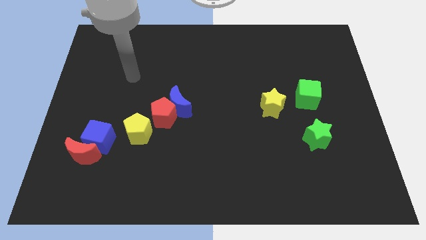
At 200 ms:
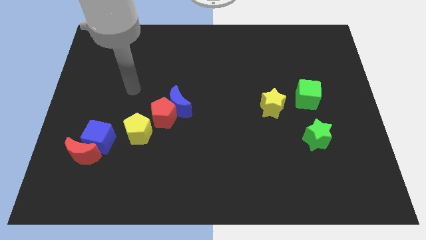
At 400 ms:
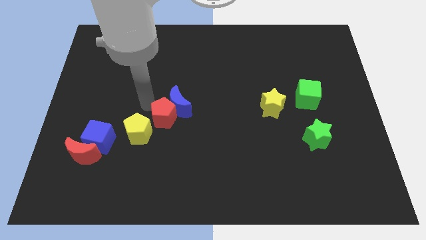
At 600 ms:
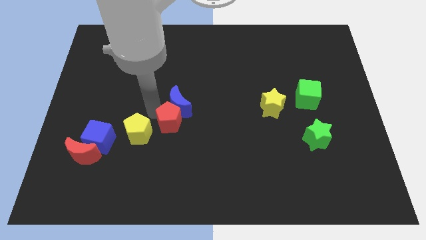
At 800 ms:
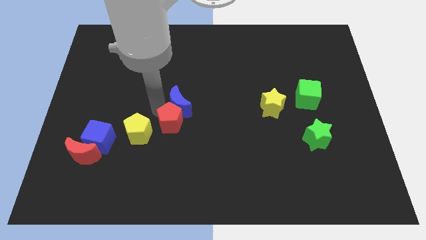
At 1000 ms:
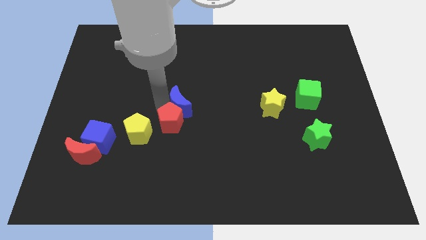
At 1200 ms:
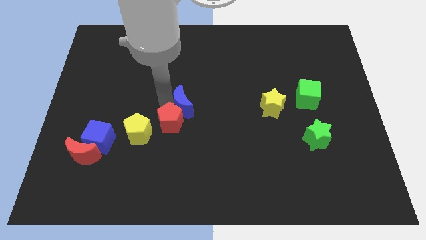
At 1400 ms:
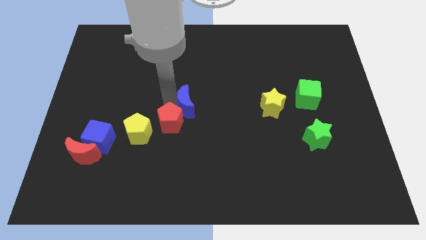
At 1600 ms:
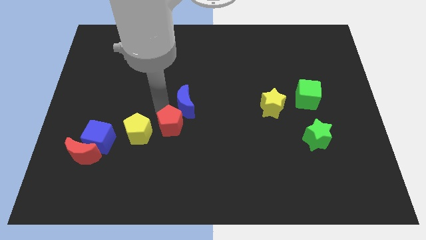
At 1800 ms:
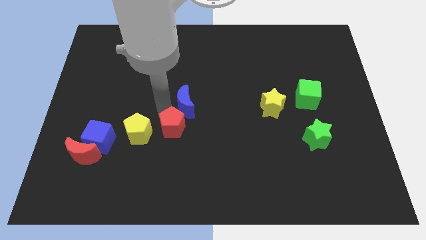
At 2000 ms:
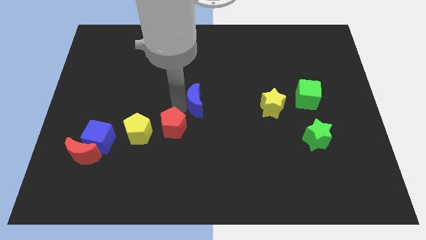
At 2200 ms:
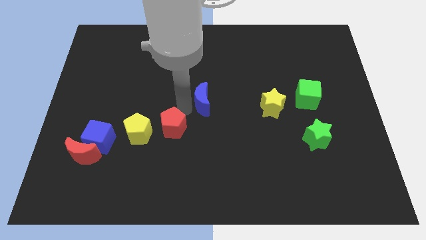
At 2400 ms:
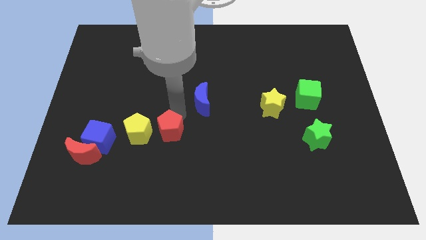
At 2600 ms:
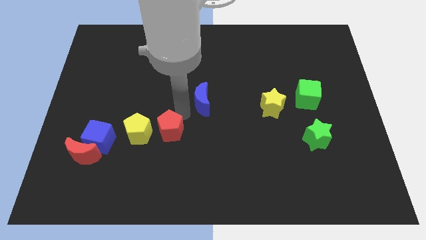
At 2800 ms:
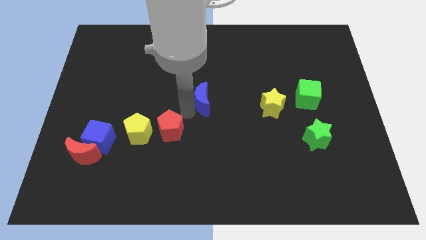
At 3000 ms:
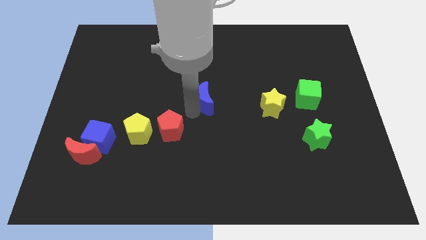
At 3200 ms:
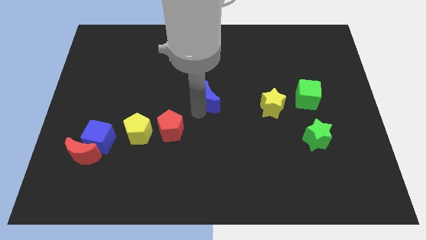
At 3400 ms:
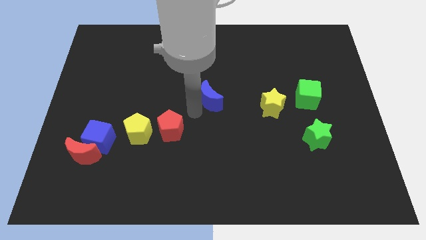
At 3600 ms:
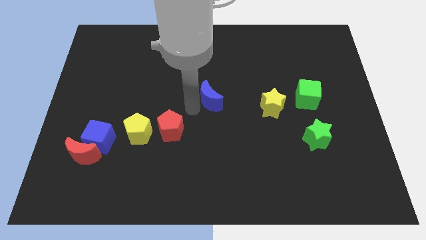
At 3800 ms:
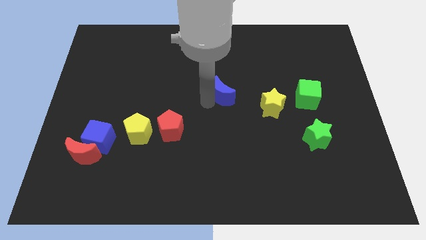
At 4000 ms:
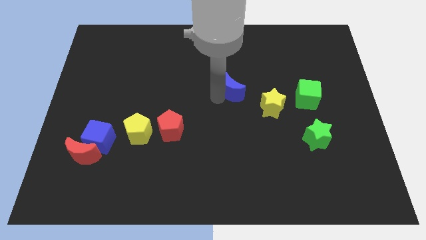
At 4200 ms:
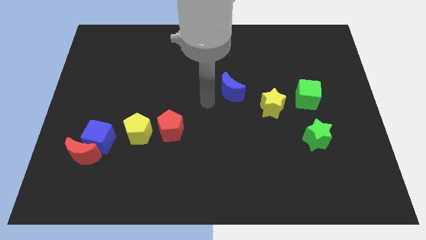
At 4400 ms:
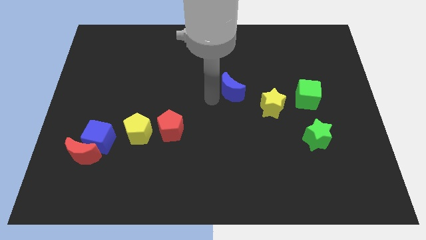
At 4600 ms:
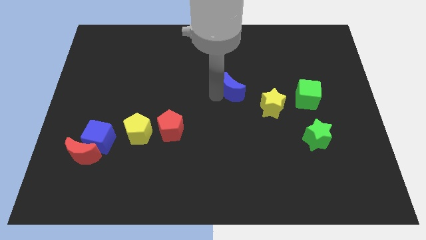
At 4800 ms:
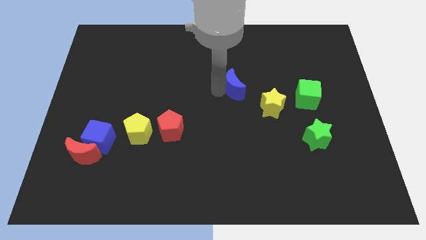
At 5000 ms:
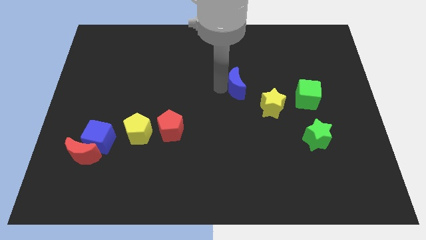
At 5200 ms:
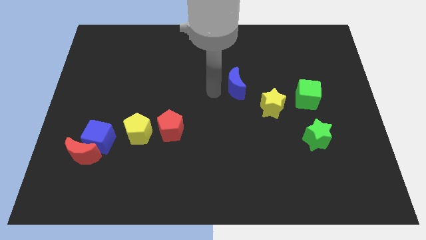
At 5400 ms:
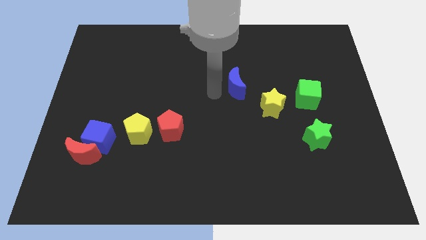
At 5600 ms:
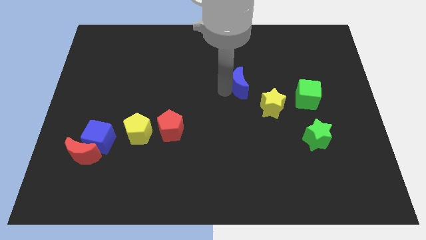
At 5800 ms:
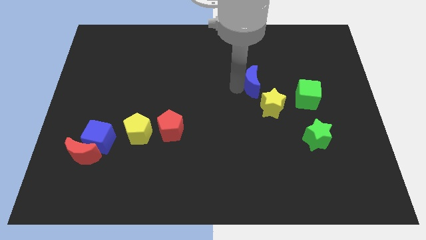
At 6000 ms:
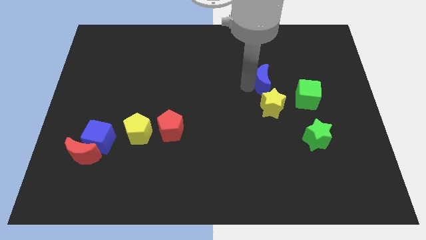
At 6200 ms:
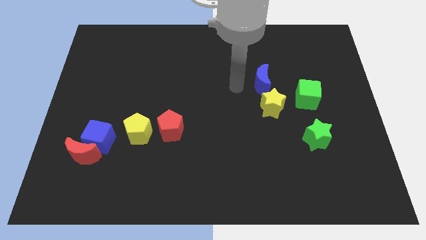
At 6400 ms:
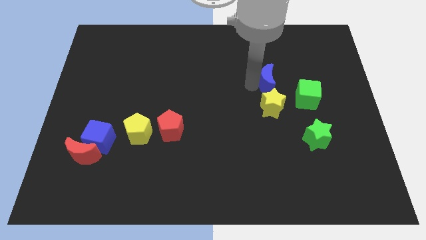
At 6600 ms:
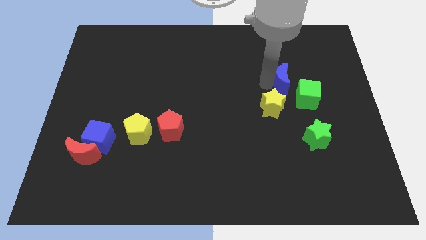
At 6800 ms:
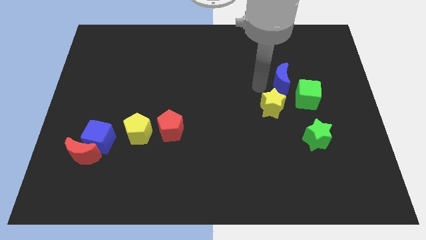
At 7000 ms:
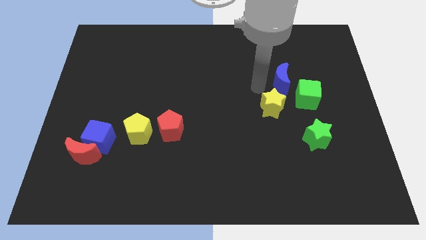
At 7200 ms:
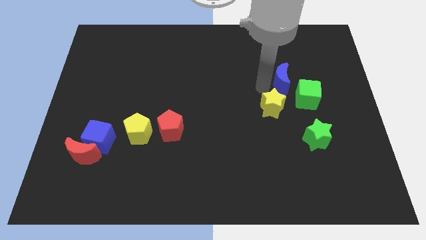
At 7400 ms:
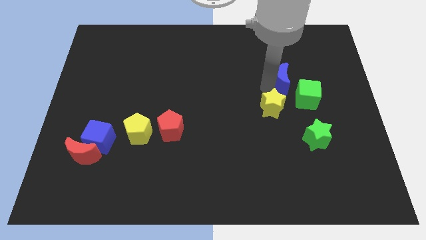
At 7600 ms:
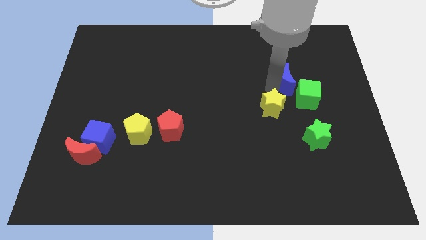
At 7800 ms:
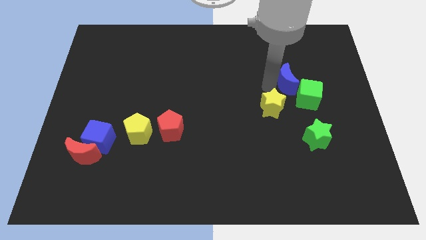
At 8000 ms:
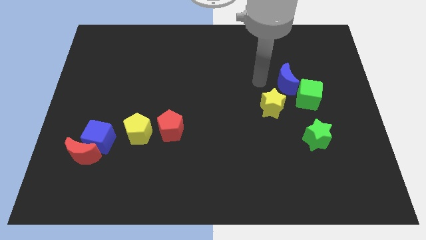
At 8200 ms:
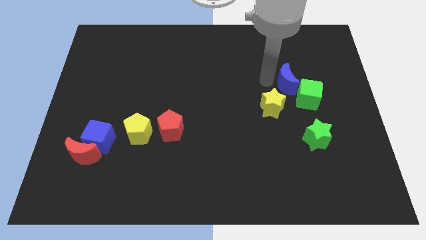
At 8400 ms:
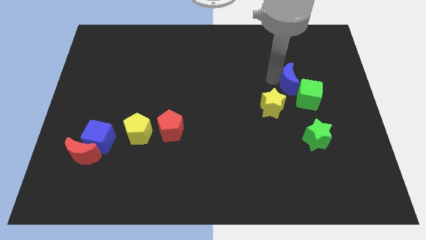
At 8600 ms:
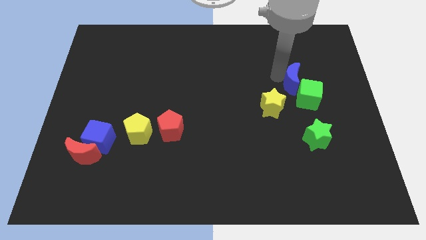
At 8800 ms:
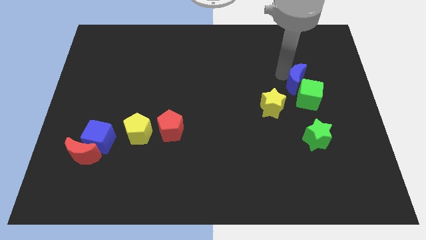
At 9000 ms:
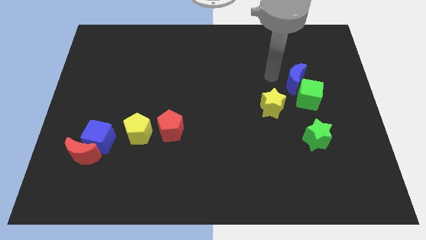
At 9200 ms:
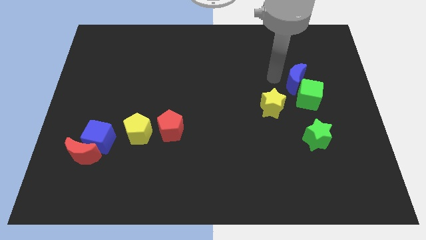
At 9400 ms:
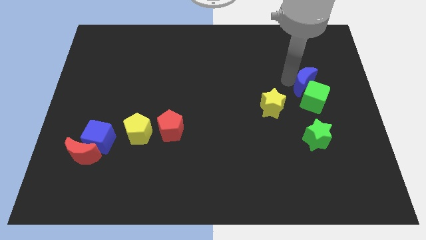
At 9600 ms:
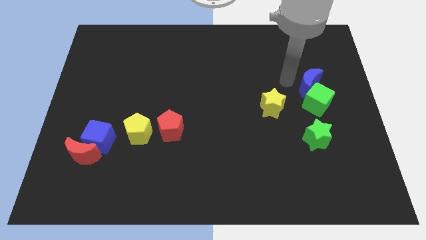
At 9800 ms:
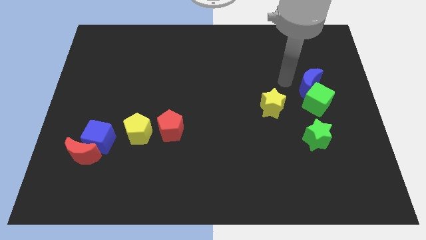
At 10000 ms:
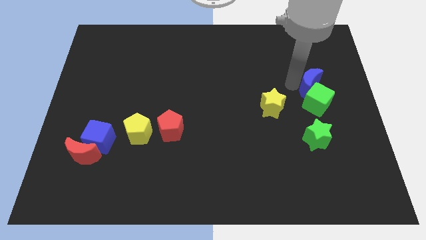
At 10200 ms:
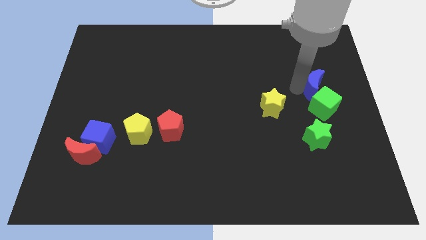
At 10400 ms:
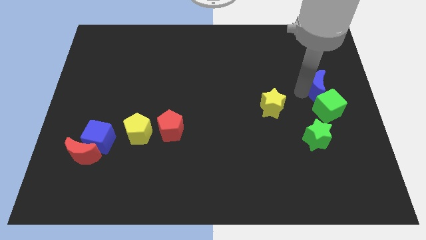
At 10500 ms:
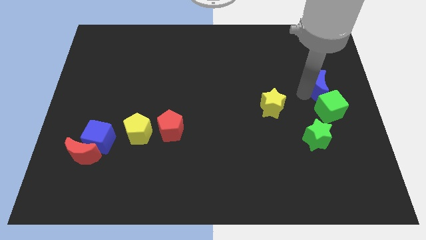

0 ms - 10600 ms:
push the blue moon to the right side

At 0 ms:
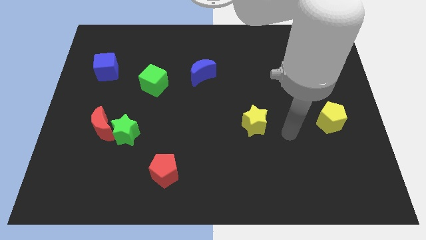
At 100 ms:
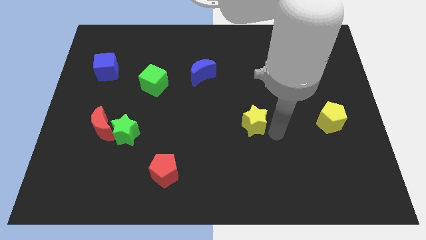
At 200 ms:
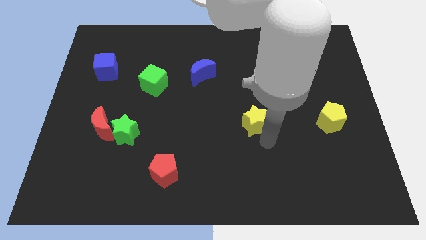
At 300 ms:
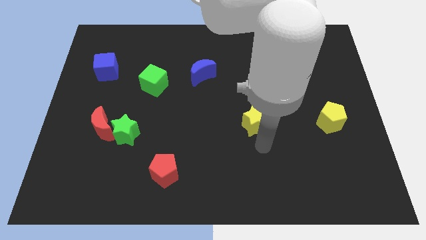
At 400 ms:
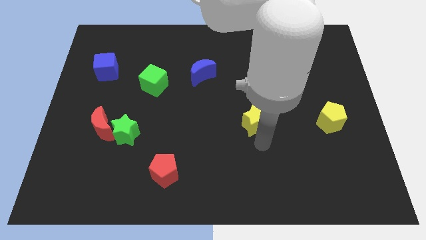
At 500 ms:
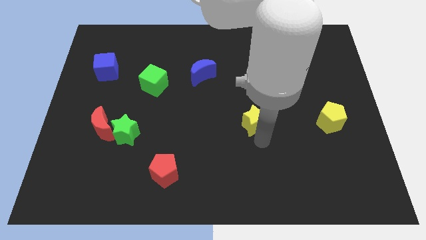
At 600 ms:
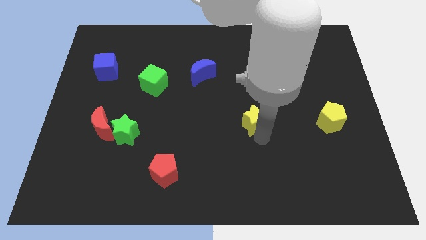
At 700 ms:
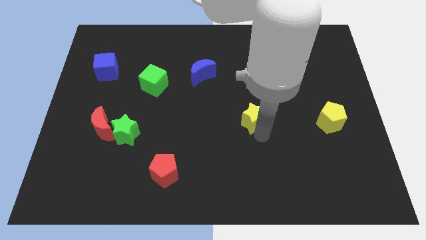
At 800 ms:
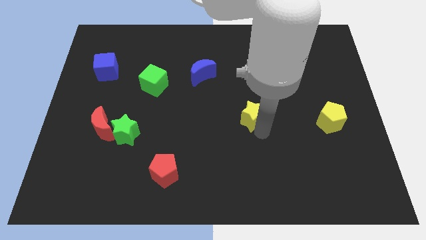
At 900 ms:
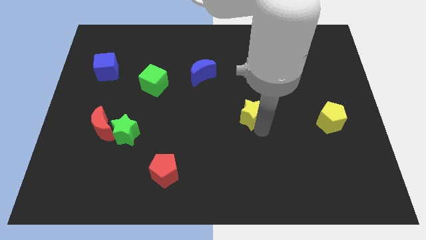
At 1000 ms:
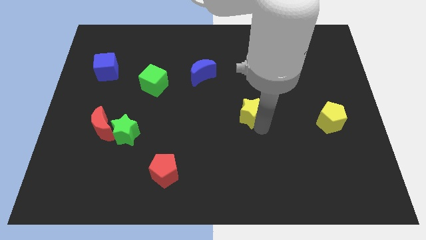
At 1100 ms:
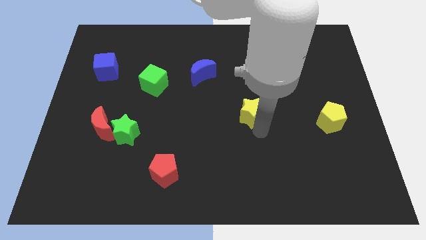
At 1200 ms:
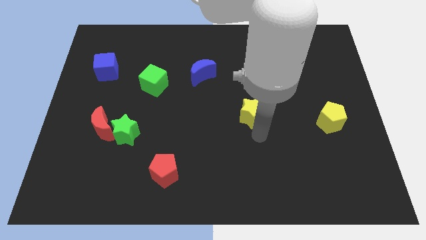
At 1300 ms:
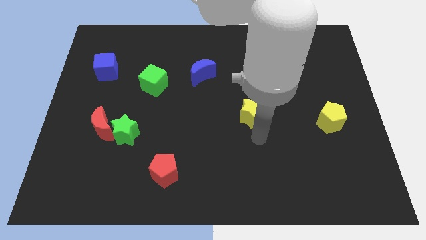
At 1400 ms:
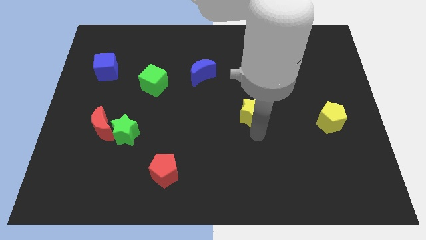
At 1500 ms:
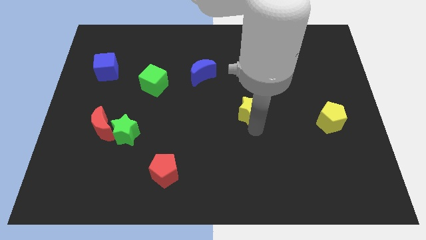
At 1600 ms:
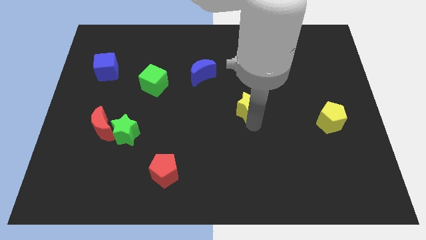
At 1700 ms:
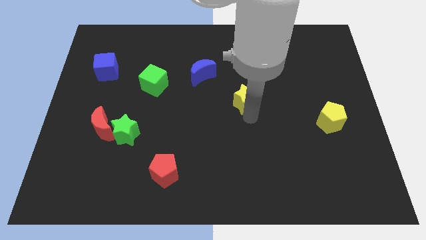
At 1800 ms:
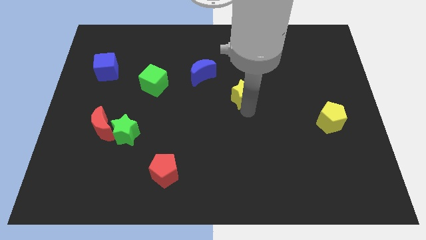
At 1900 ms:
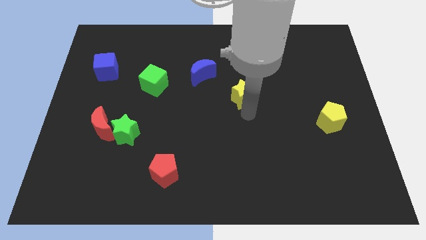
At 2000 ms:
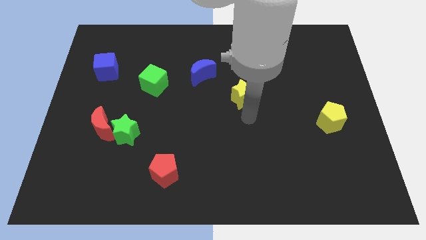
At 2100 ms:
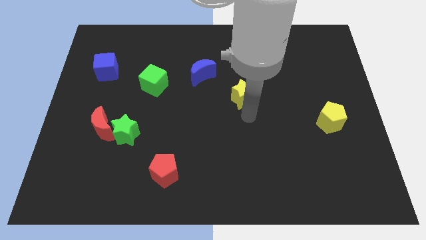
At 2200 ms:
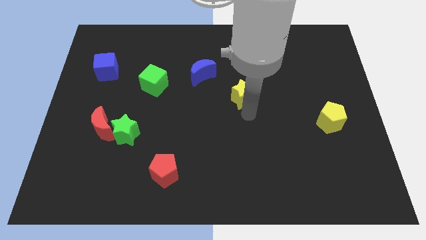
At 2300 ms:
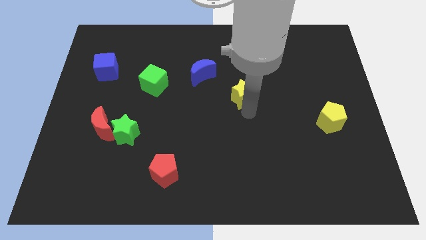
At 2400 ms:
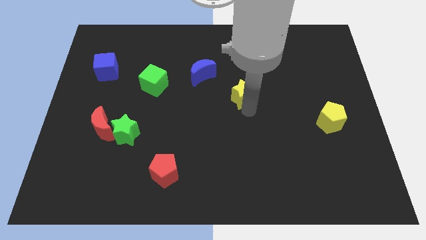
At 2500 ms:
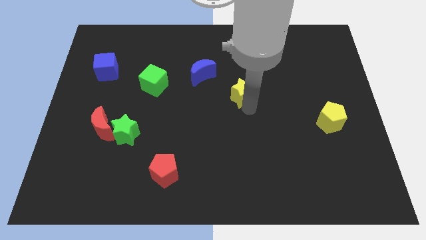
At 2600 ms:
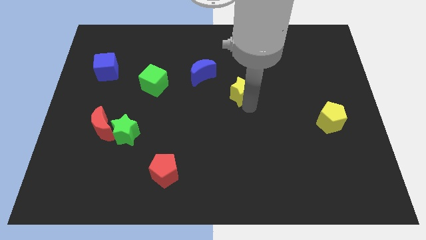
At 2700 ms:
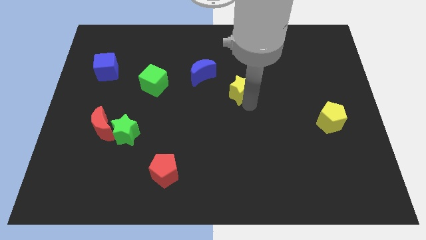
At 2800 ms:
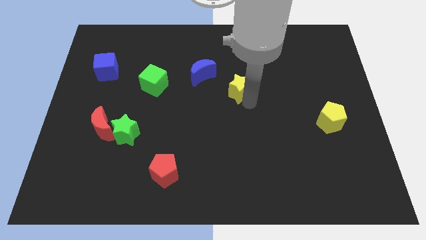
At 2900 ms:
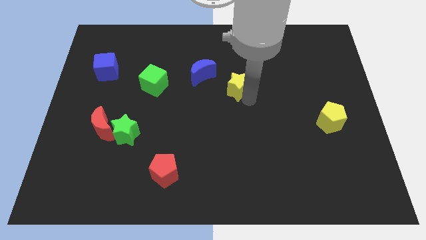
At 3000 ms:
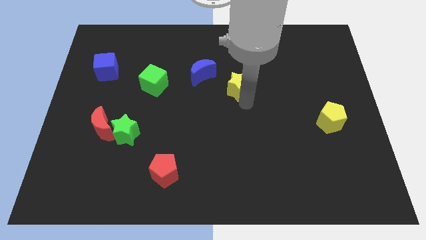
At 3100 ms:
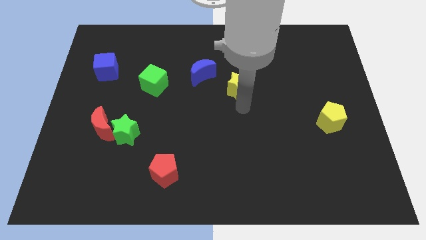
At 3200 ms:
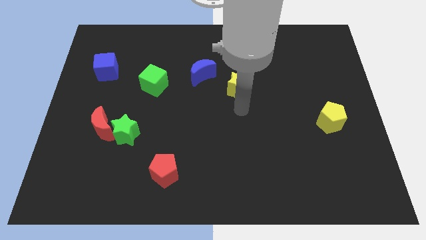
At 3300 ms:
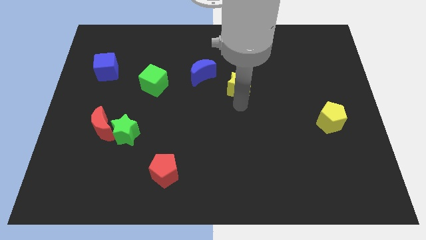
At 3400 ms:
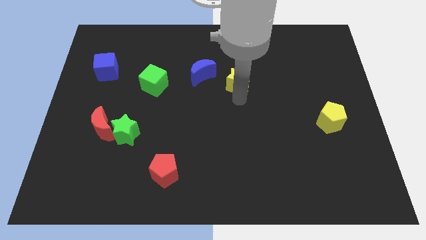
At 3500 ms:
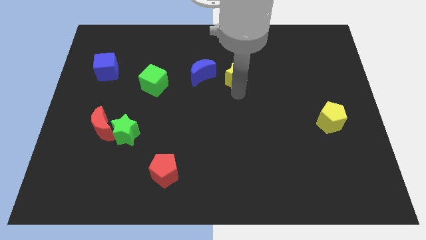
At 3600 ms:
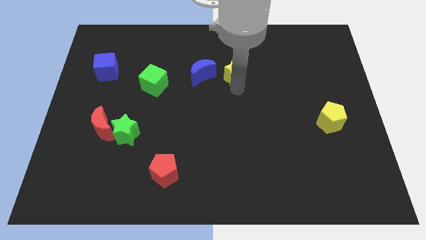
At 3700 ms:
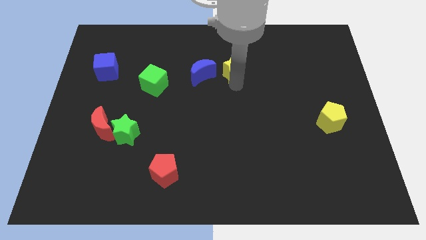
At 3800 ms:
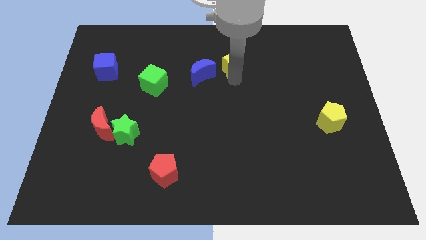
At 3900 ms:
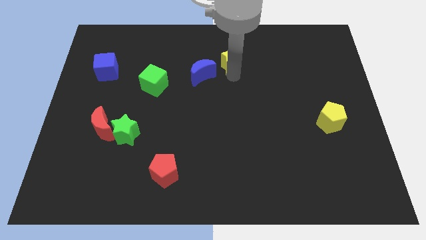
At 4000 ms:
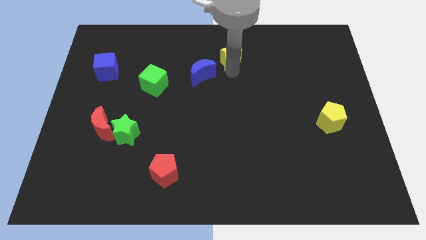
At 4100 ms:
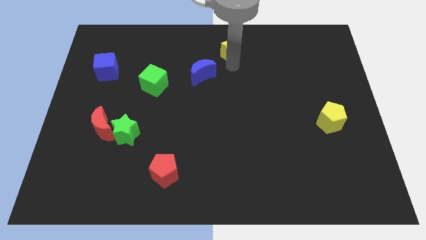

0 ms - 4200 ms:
push the yellow star to the top
